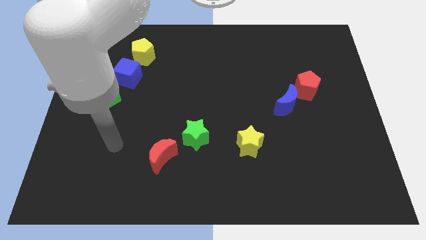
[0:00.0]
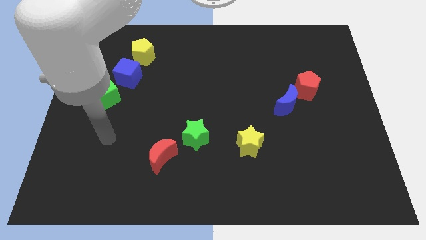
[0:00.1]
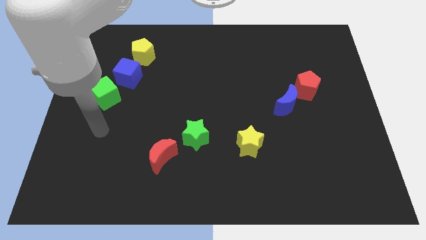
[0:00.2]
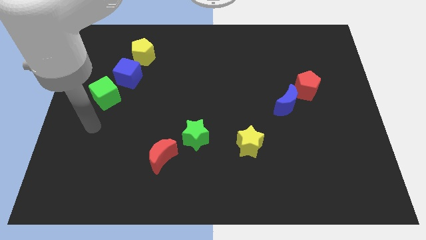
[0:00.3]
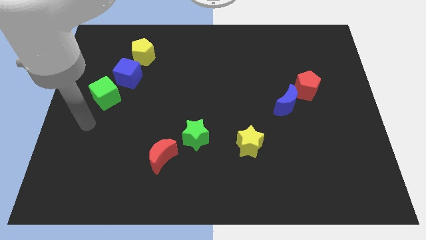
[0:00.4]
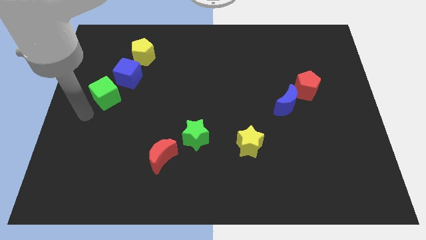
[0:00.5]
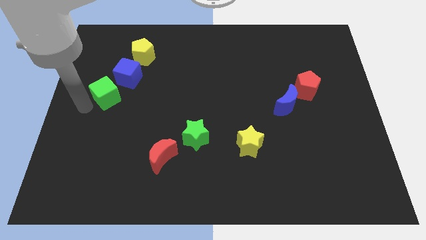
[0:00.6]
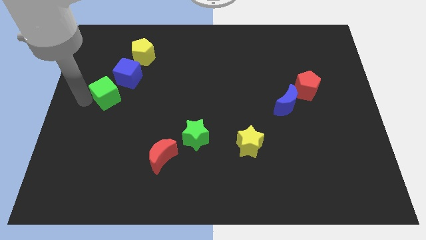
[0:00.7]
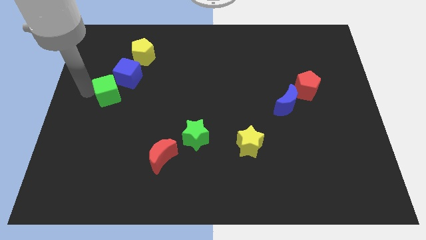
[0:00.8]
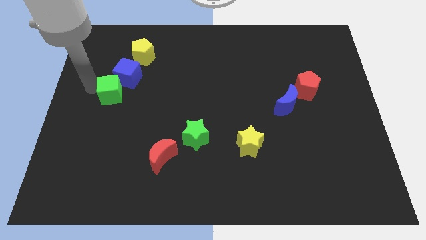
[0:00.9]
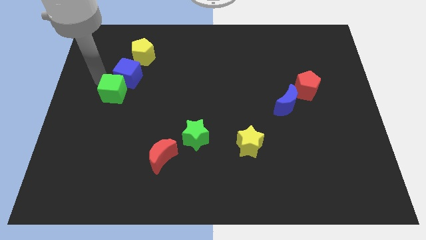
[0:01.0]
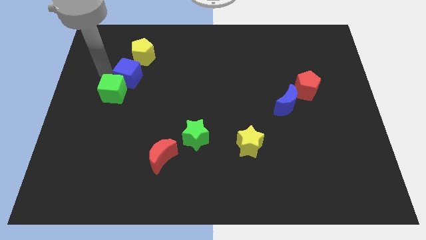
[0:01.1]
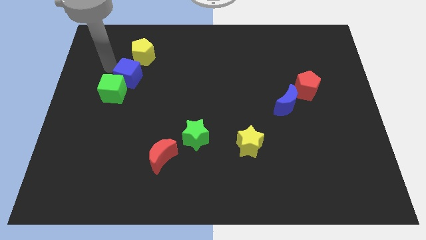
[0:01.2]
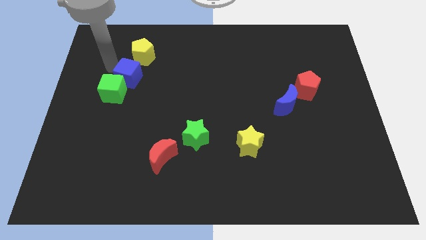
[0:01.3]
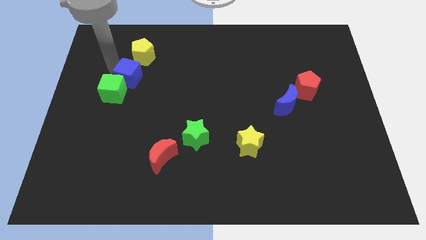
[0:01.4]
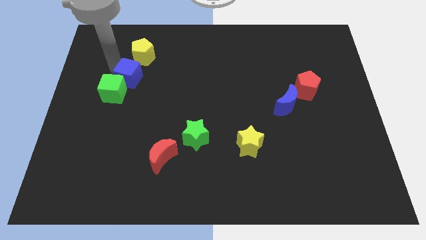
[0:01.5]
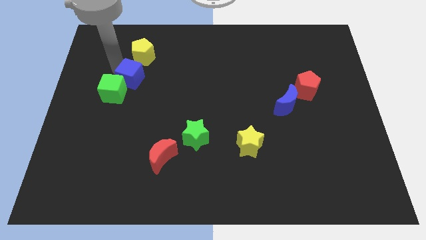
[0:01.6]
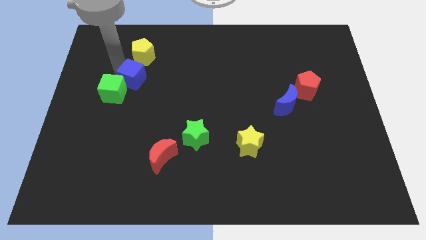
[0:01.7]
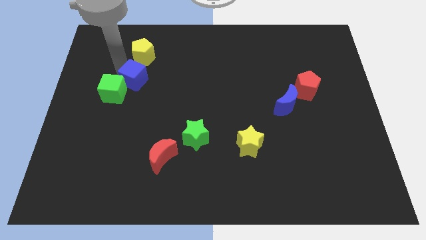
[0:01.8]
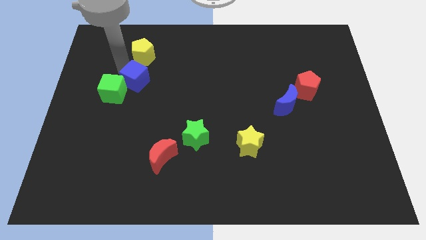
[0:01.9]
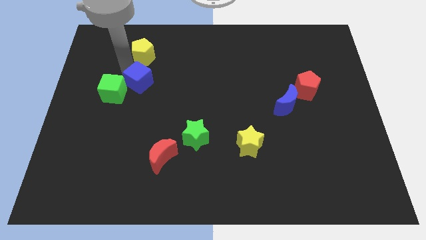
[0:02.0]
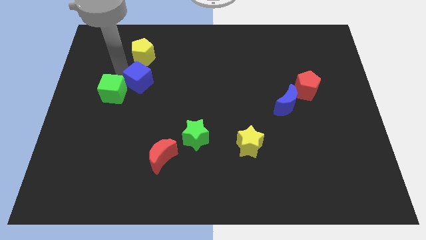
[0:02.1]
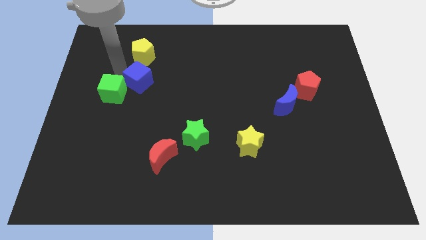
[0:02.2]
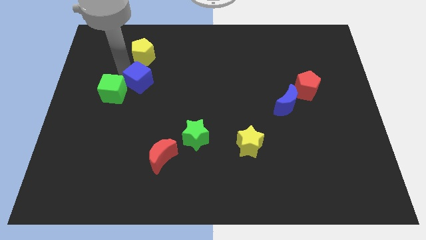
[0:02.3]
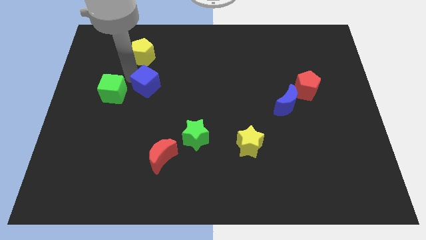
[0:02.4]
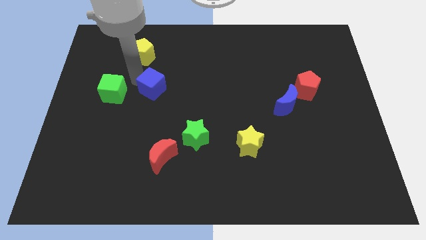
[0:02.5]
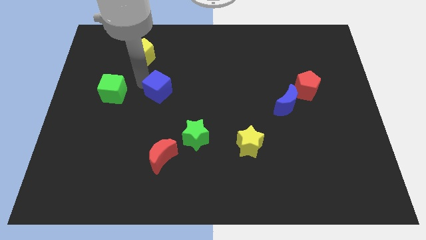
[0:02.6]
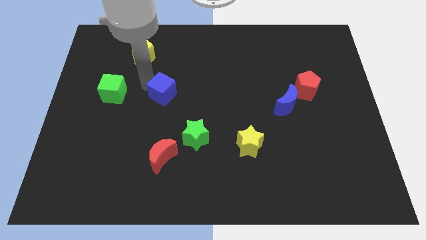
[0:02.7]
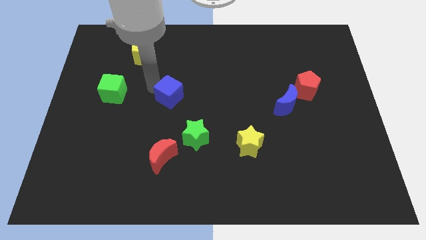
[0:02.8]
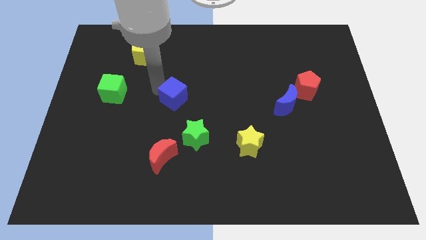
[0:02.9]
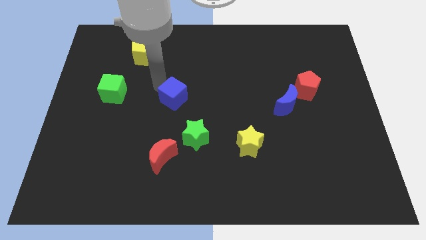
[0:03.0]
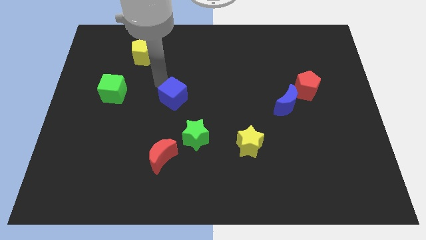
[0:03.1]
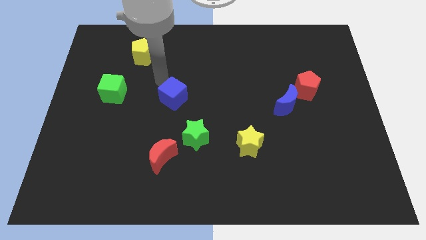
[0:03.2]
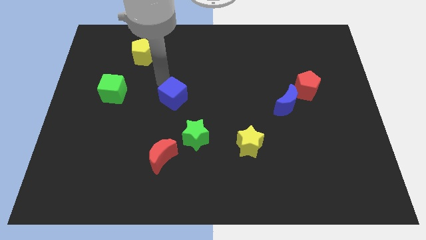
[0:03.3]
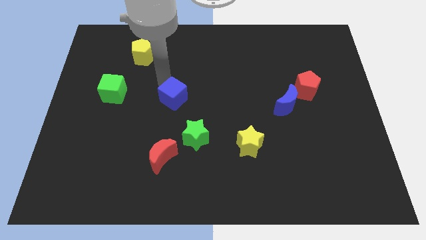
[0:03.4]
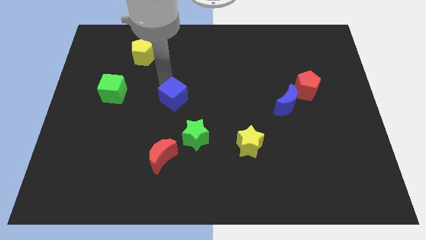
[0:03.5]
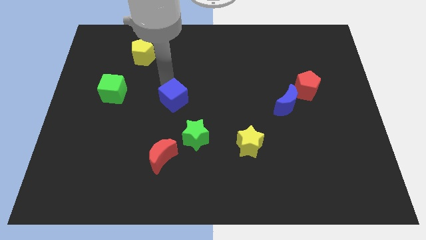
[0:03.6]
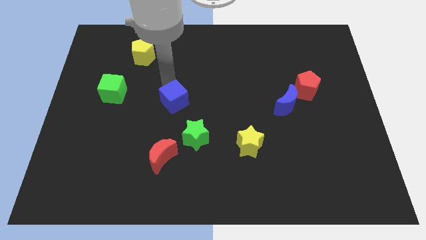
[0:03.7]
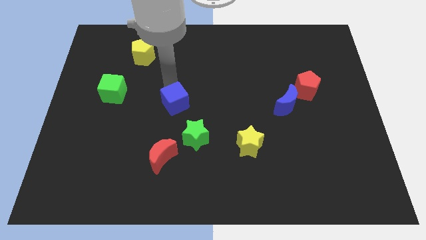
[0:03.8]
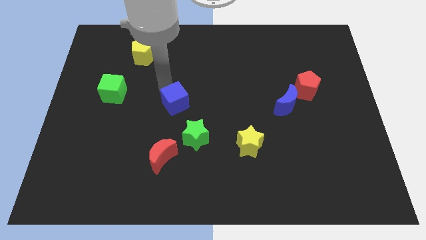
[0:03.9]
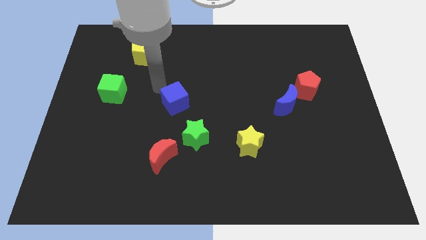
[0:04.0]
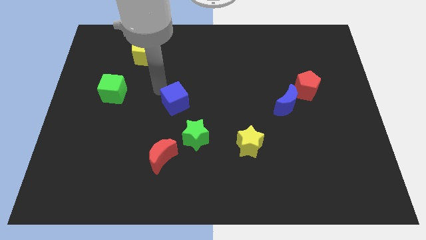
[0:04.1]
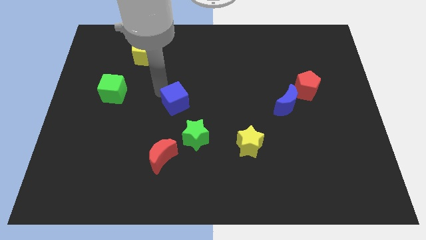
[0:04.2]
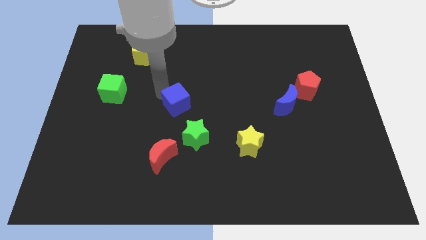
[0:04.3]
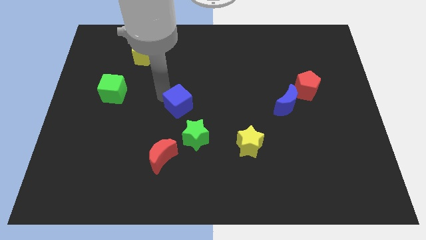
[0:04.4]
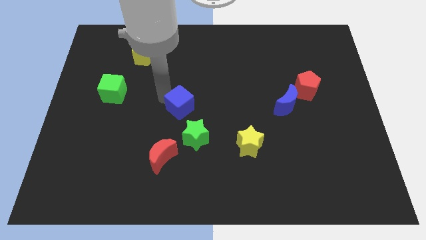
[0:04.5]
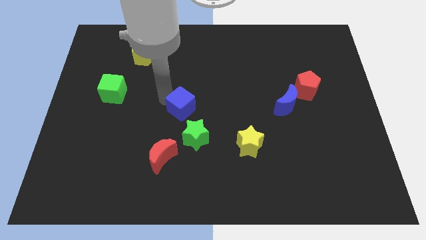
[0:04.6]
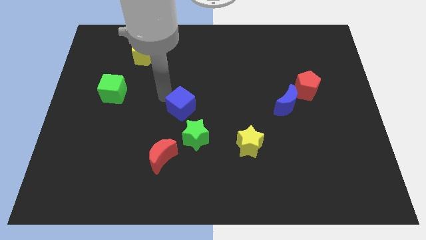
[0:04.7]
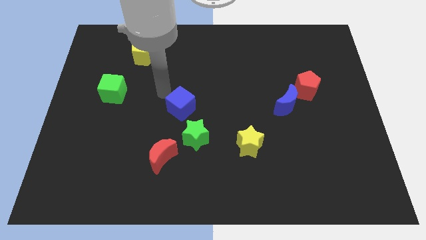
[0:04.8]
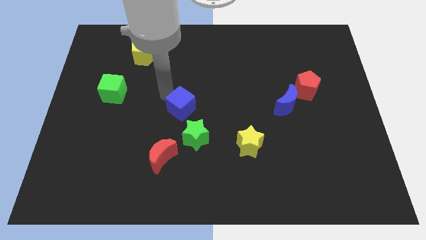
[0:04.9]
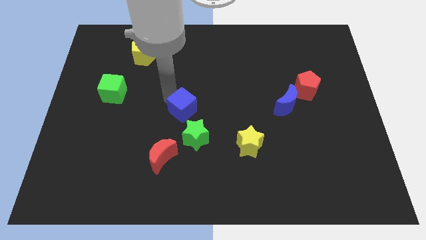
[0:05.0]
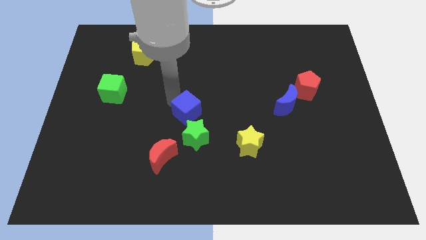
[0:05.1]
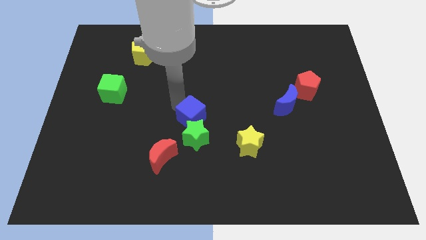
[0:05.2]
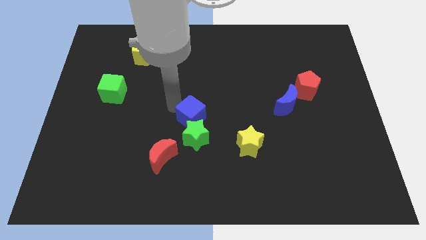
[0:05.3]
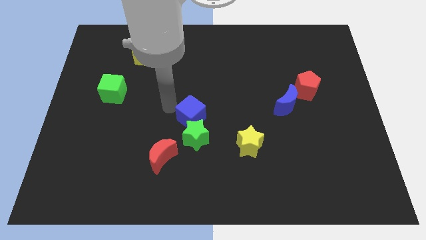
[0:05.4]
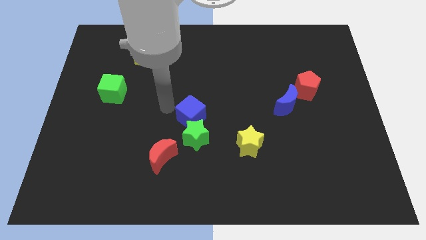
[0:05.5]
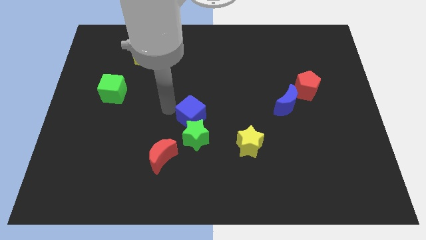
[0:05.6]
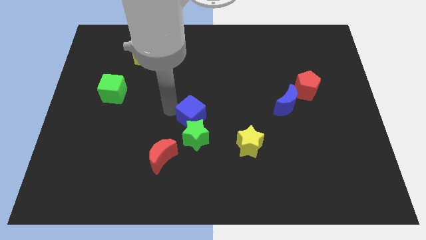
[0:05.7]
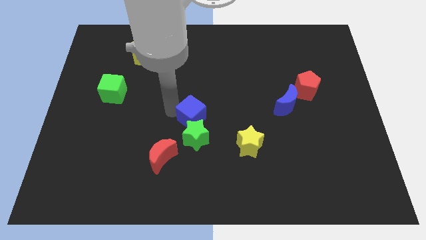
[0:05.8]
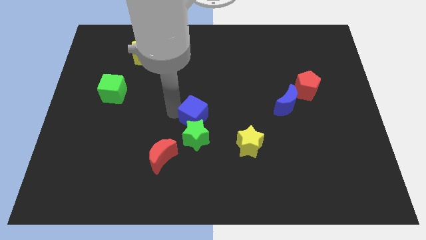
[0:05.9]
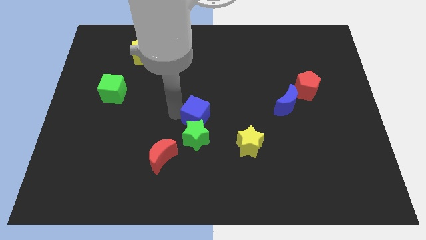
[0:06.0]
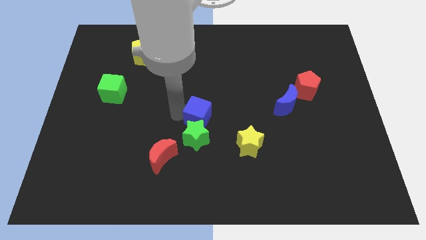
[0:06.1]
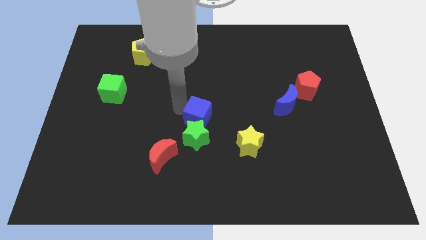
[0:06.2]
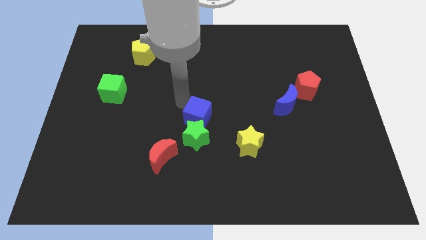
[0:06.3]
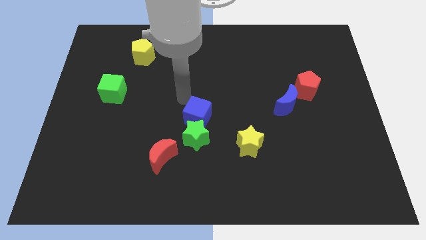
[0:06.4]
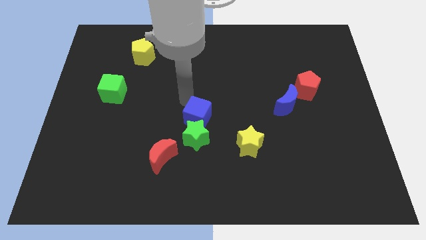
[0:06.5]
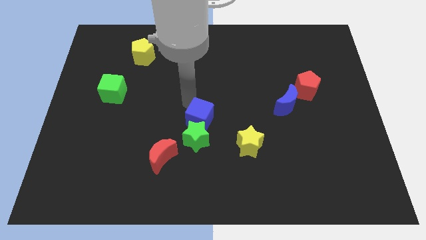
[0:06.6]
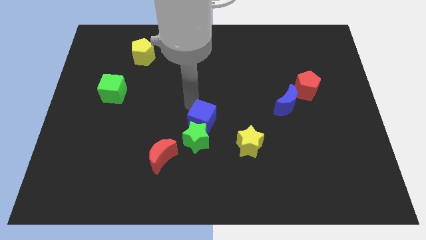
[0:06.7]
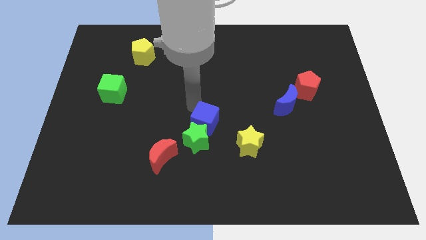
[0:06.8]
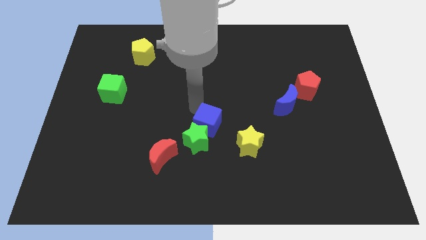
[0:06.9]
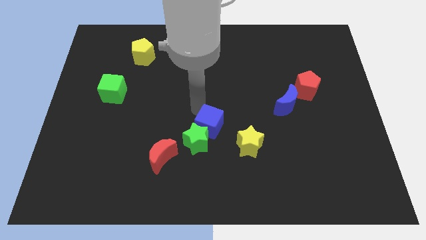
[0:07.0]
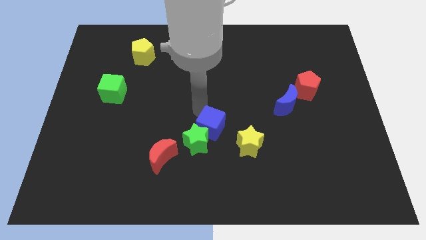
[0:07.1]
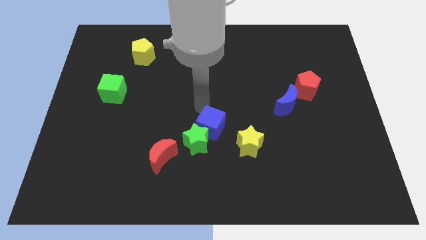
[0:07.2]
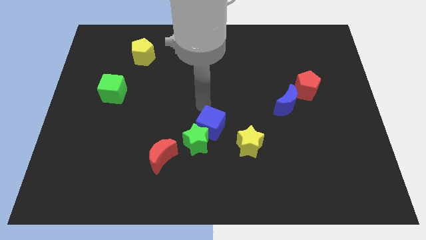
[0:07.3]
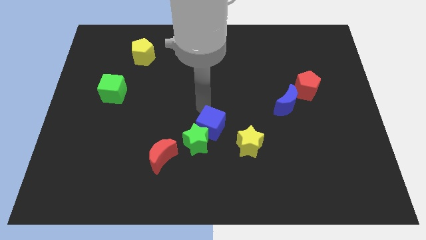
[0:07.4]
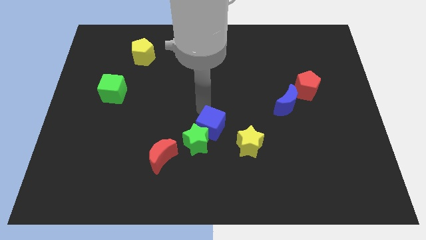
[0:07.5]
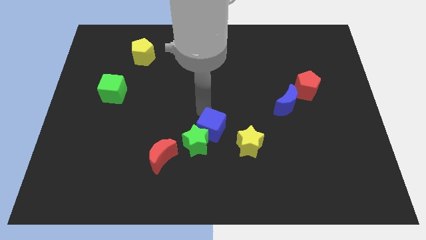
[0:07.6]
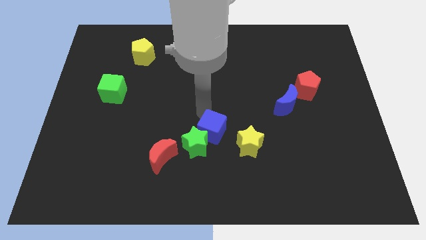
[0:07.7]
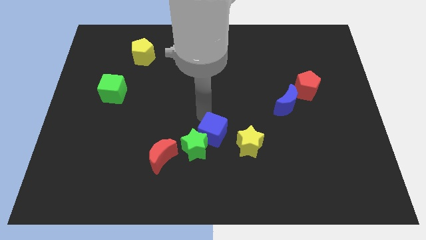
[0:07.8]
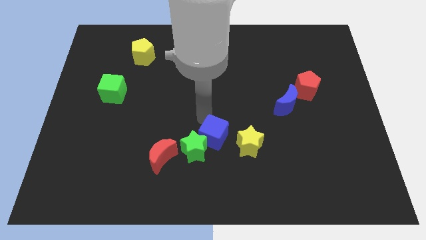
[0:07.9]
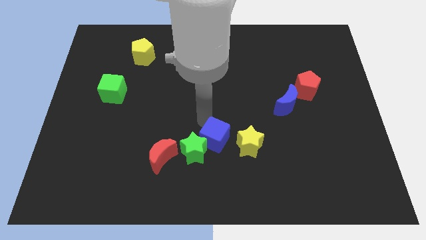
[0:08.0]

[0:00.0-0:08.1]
move the blue cube just right of the red moon
